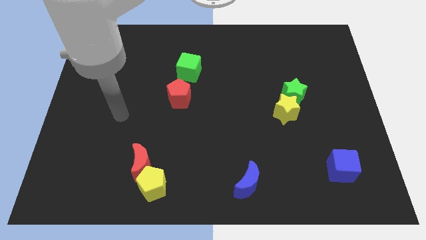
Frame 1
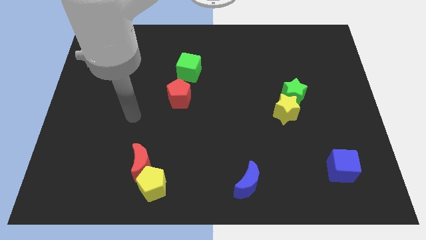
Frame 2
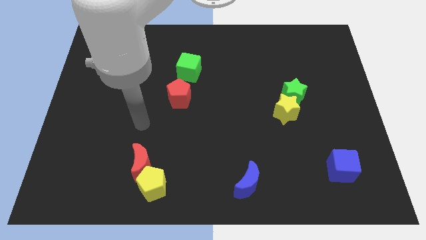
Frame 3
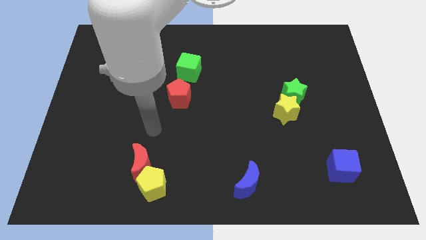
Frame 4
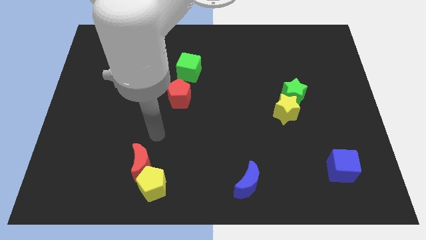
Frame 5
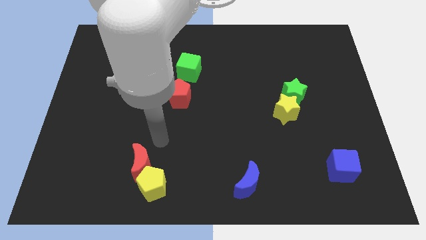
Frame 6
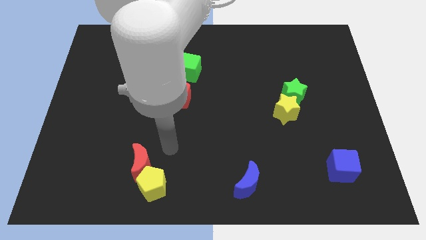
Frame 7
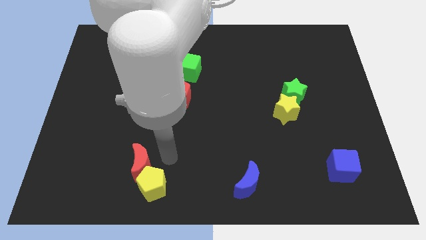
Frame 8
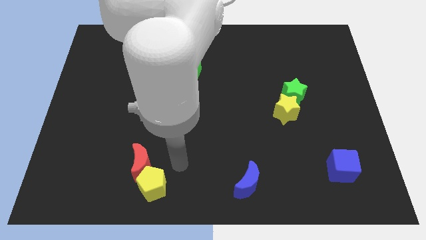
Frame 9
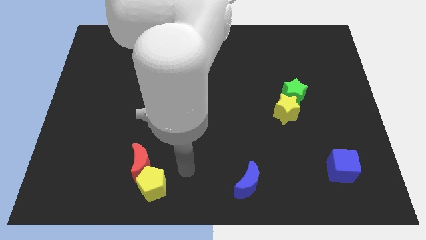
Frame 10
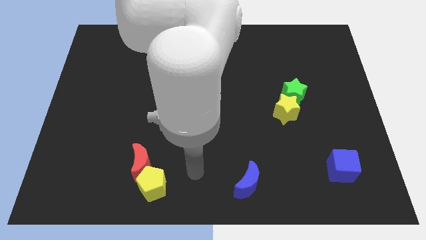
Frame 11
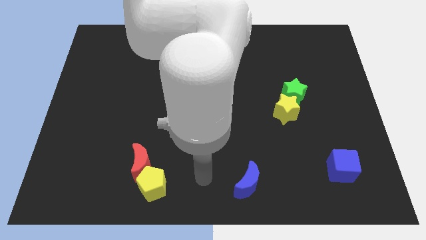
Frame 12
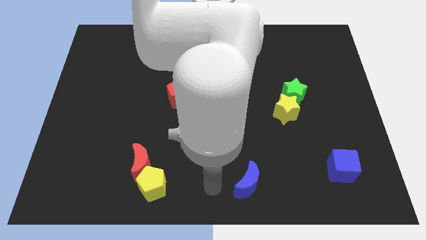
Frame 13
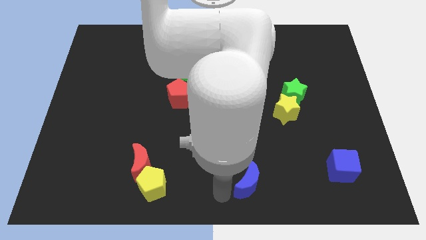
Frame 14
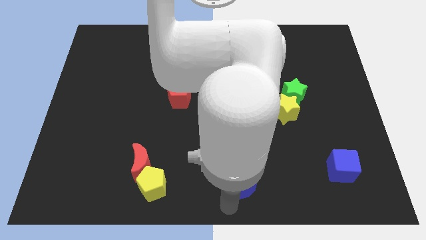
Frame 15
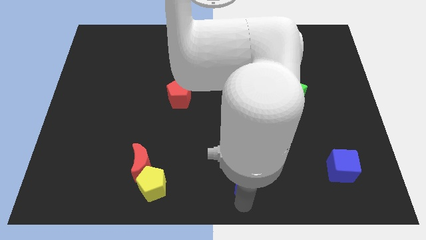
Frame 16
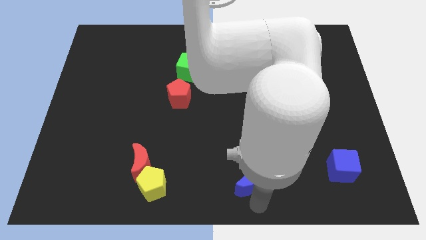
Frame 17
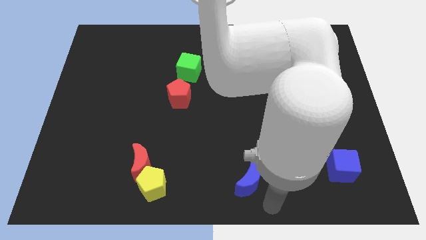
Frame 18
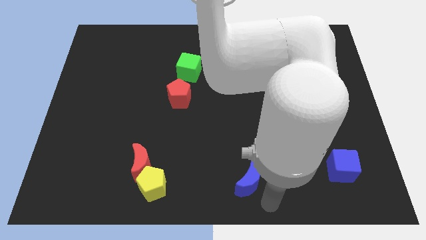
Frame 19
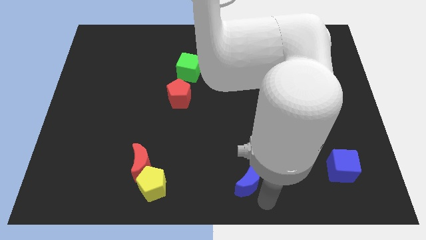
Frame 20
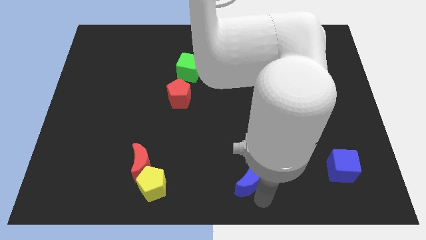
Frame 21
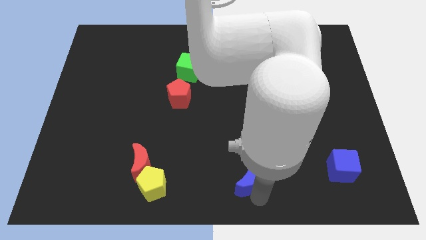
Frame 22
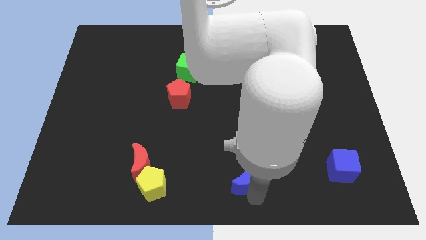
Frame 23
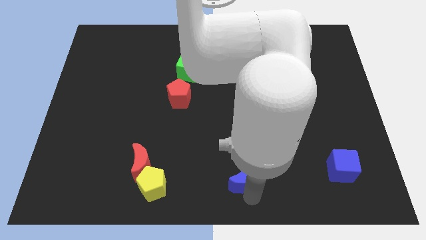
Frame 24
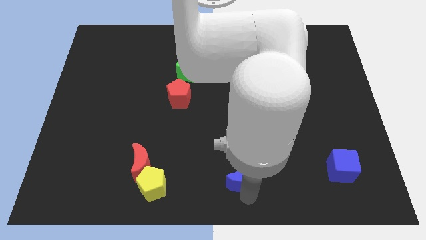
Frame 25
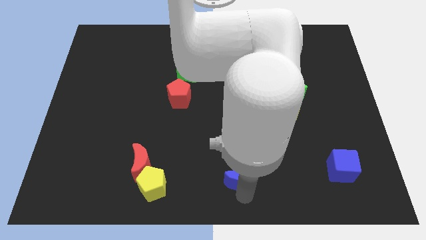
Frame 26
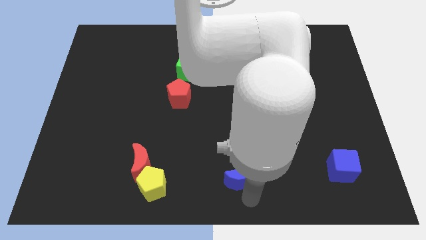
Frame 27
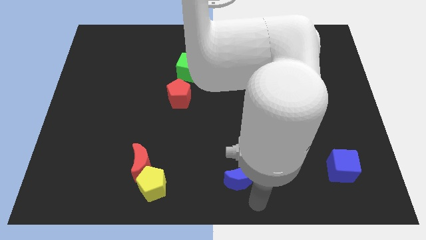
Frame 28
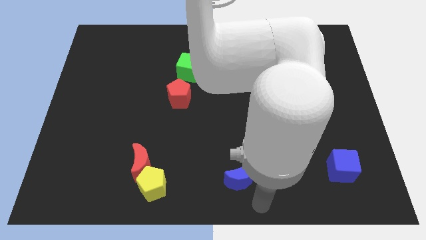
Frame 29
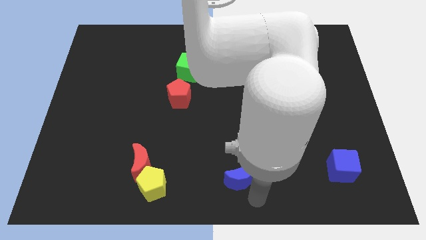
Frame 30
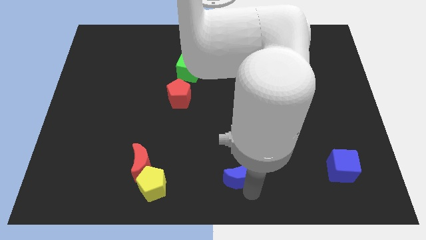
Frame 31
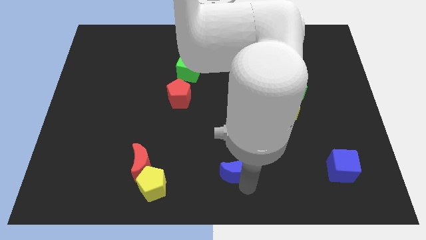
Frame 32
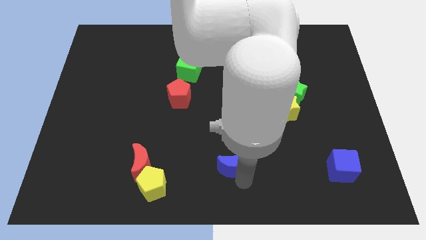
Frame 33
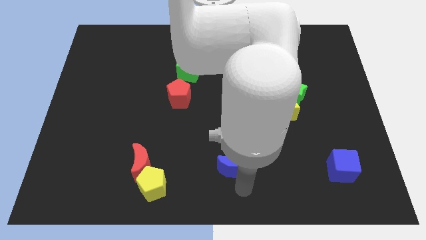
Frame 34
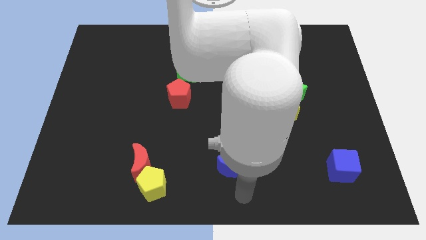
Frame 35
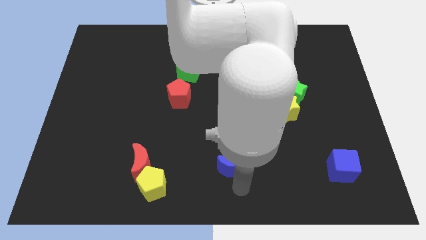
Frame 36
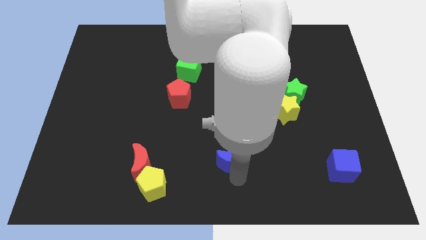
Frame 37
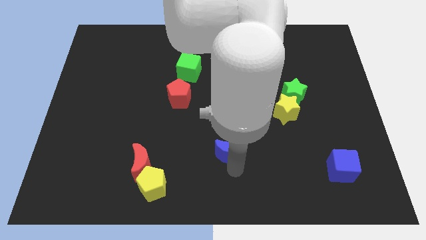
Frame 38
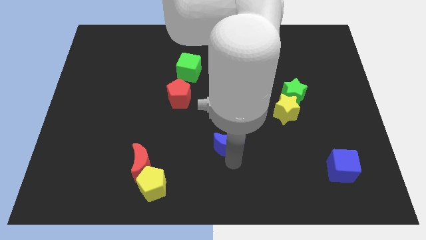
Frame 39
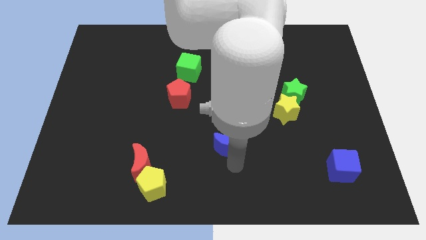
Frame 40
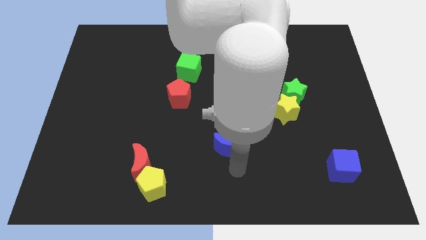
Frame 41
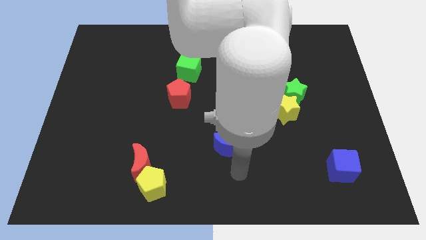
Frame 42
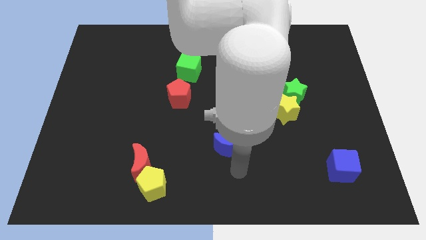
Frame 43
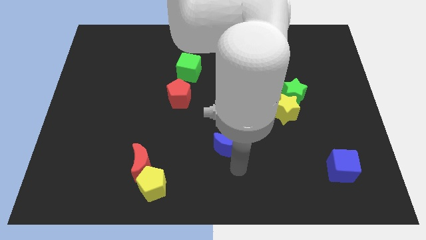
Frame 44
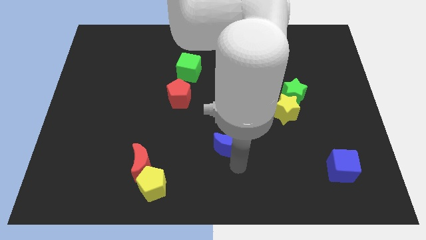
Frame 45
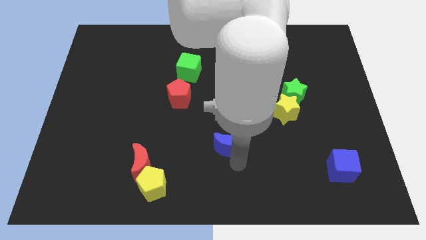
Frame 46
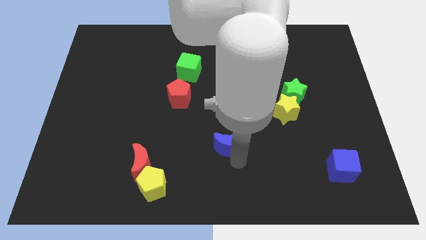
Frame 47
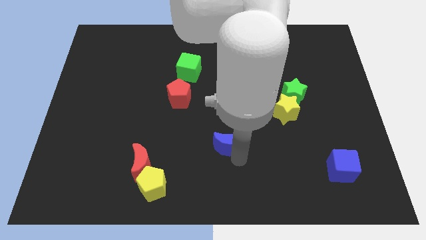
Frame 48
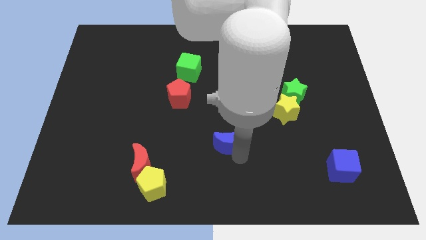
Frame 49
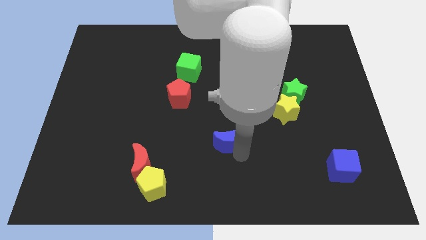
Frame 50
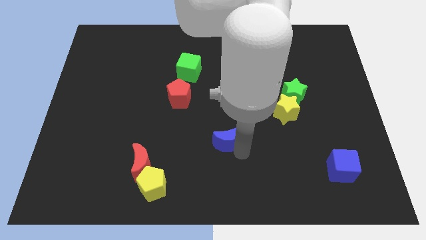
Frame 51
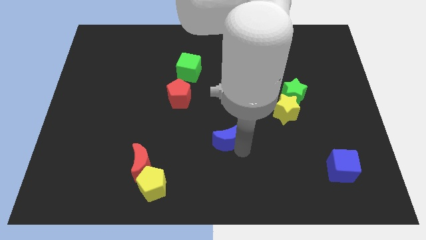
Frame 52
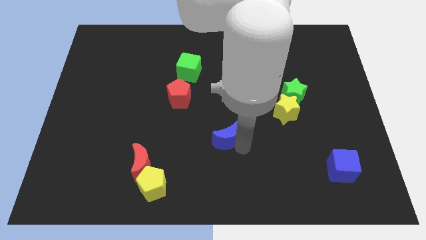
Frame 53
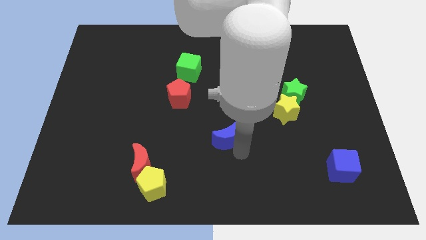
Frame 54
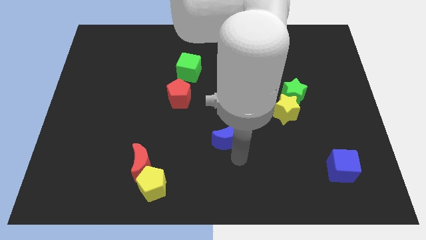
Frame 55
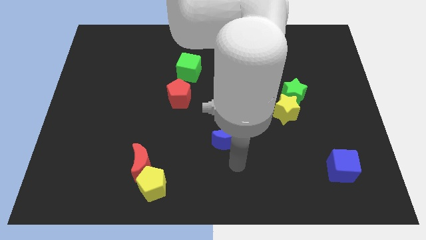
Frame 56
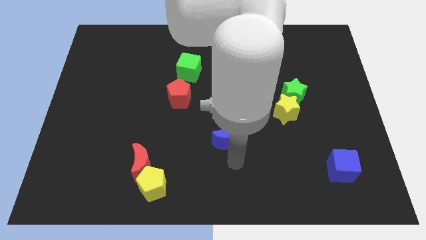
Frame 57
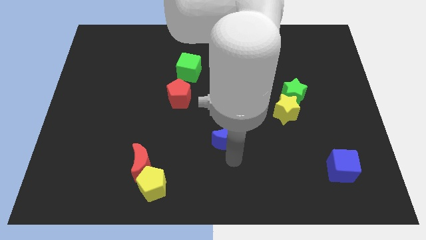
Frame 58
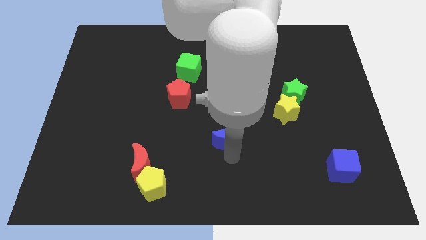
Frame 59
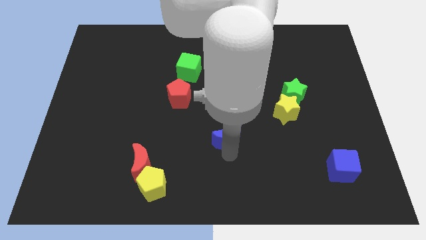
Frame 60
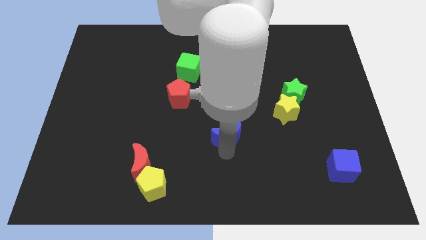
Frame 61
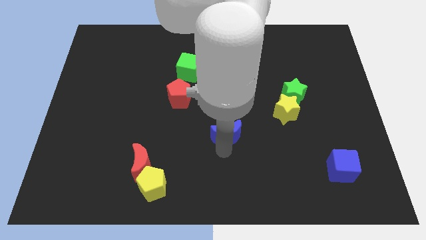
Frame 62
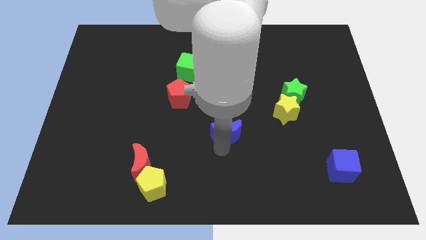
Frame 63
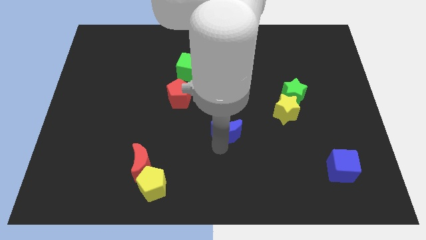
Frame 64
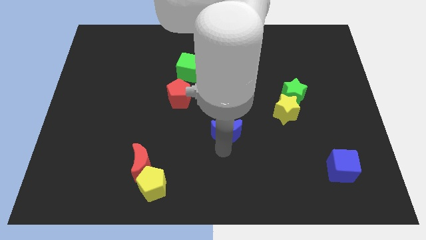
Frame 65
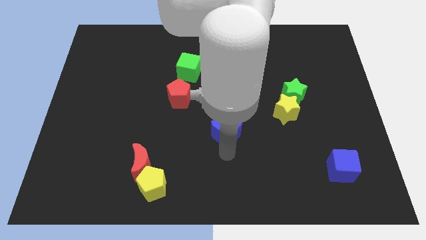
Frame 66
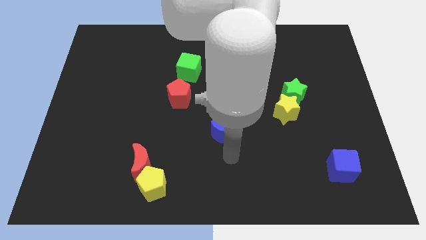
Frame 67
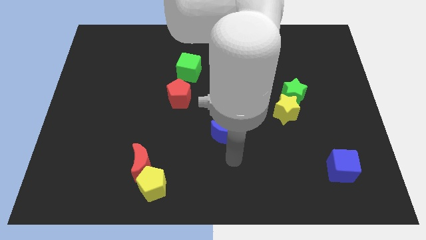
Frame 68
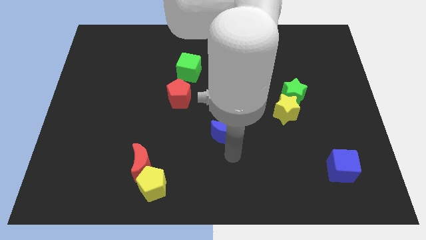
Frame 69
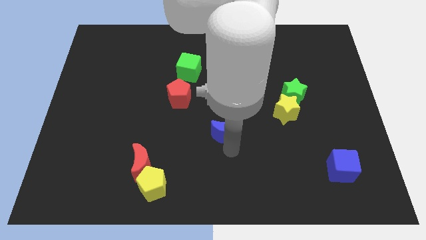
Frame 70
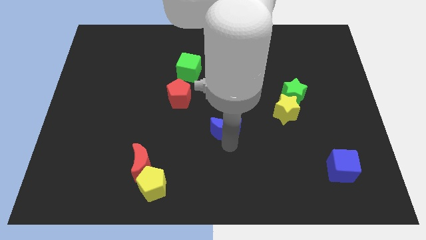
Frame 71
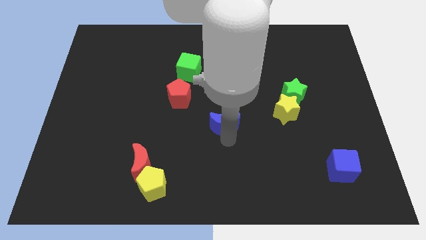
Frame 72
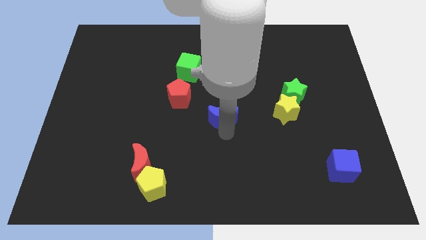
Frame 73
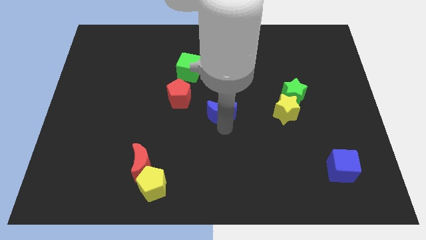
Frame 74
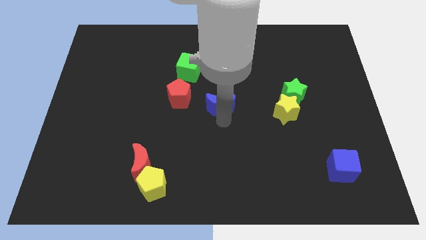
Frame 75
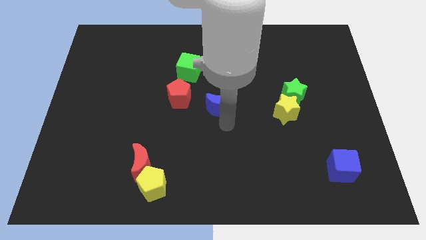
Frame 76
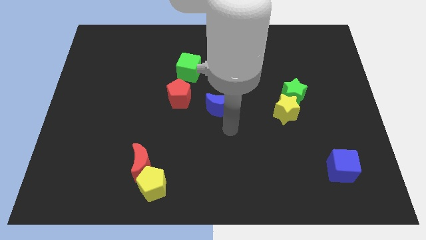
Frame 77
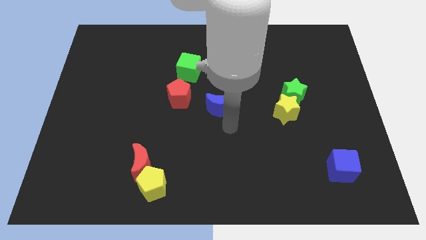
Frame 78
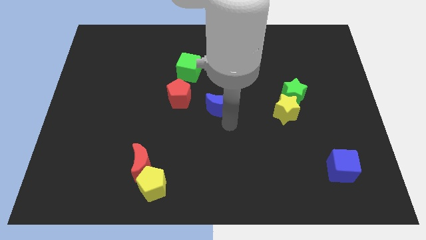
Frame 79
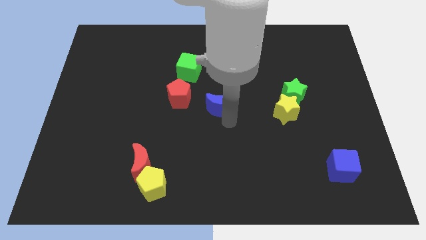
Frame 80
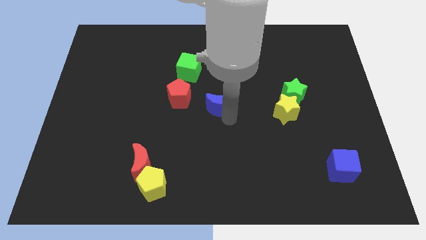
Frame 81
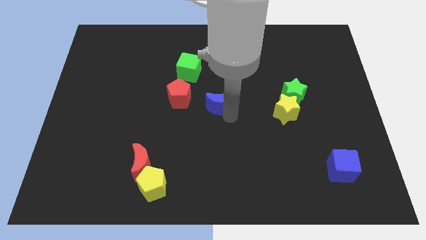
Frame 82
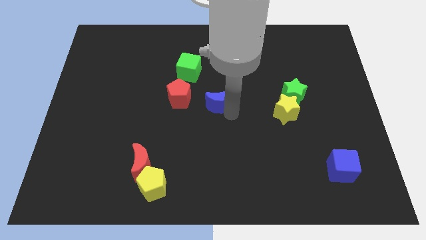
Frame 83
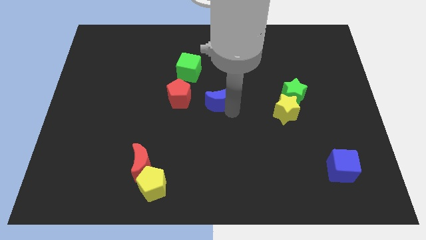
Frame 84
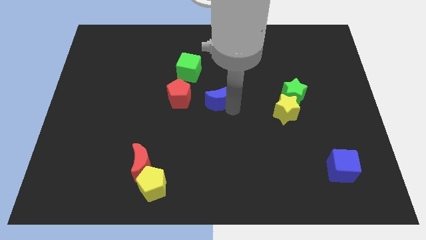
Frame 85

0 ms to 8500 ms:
slide the blue moon diagonally down and to the right of the green cube
